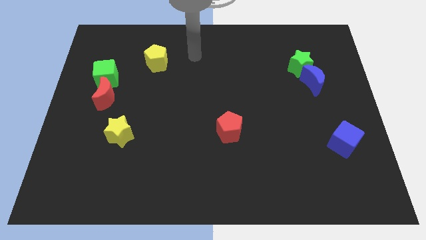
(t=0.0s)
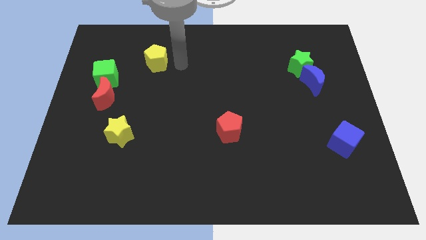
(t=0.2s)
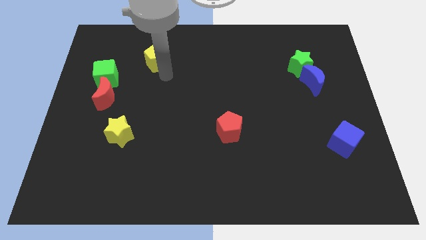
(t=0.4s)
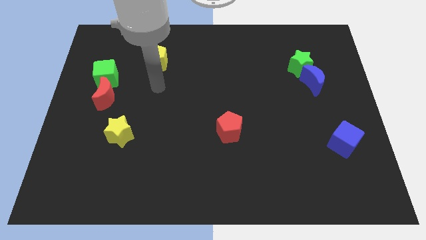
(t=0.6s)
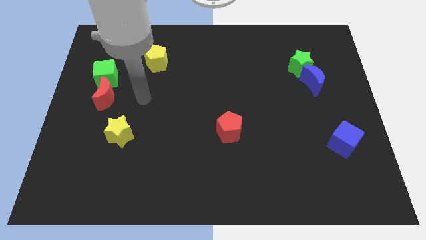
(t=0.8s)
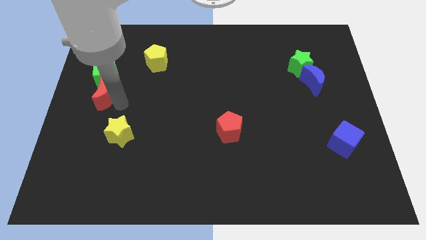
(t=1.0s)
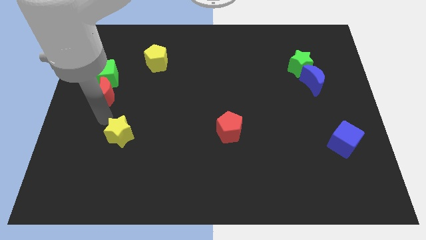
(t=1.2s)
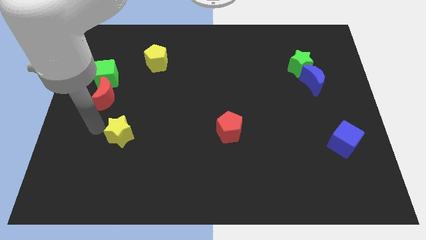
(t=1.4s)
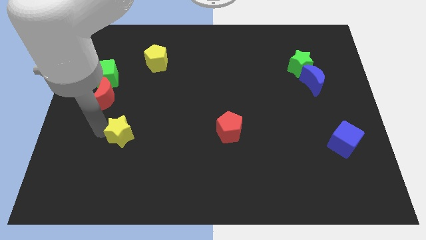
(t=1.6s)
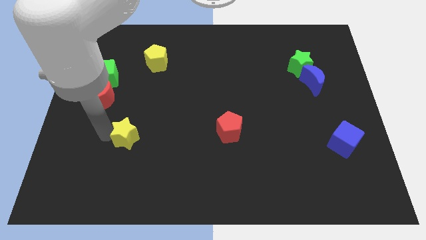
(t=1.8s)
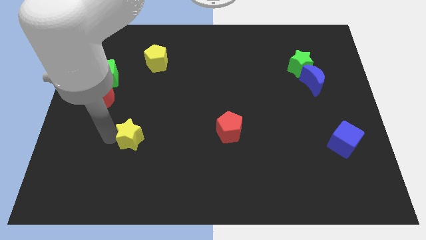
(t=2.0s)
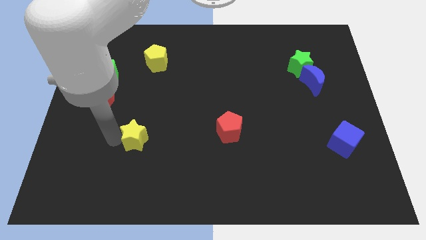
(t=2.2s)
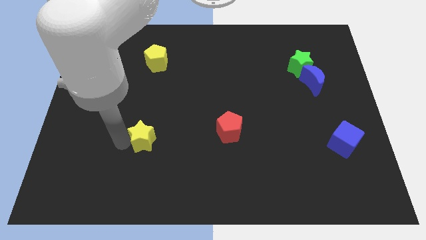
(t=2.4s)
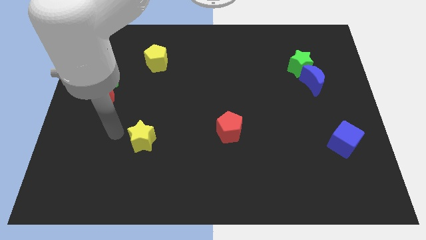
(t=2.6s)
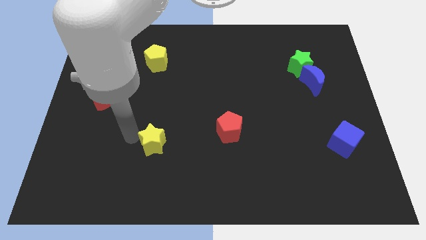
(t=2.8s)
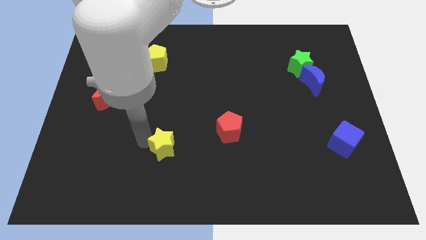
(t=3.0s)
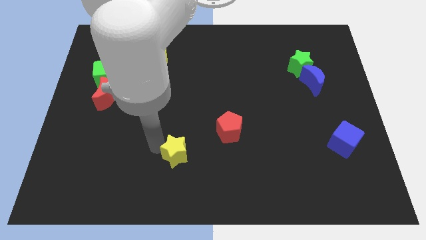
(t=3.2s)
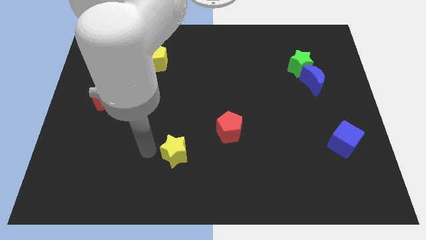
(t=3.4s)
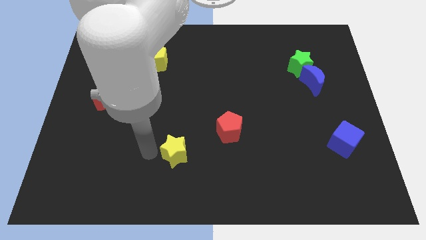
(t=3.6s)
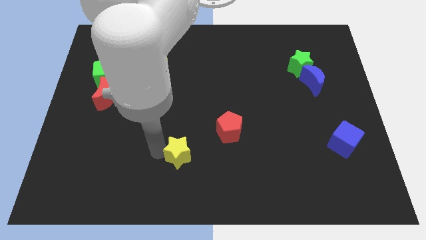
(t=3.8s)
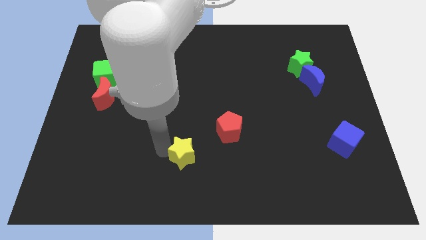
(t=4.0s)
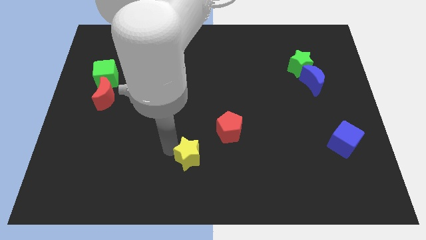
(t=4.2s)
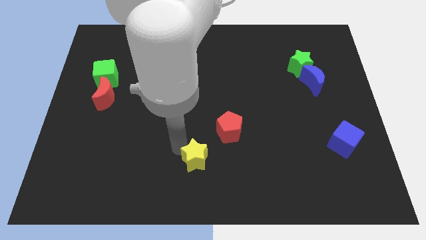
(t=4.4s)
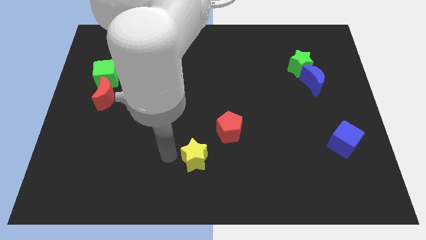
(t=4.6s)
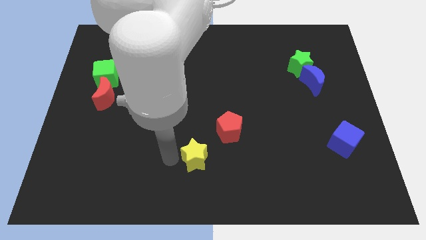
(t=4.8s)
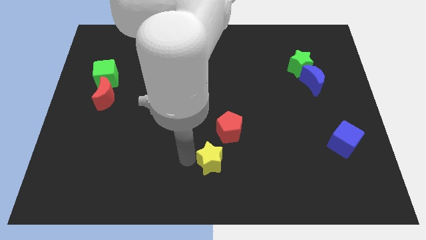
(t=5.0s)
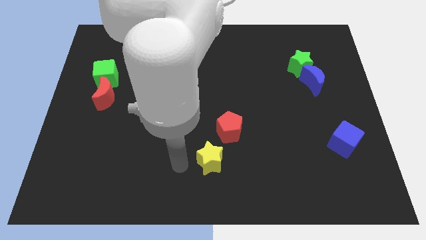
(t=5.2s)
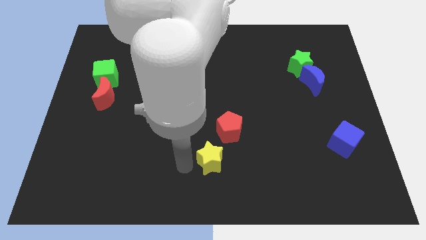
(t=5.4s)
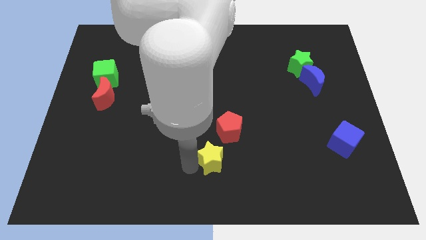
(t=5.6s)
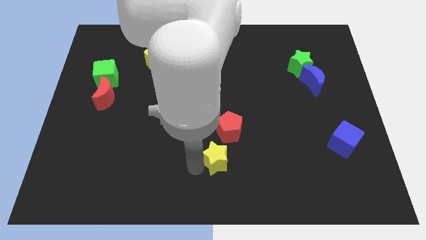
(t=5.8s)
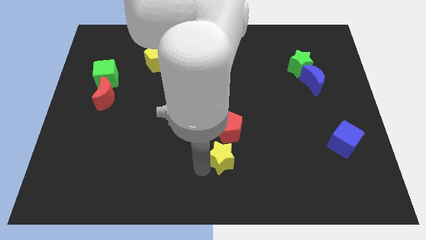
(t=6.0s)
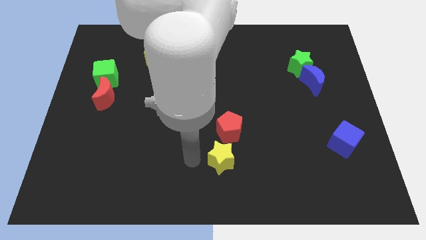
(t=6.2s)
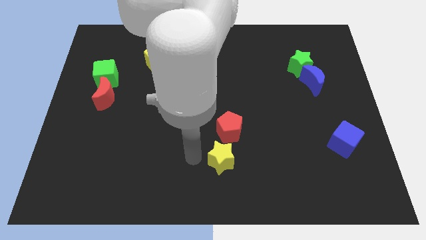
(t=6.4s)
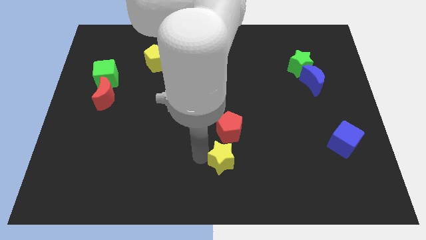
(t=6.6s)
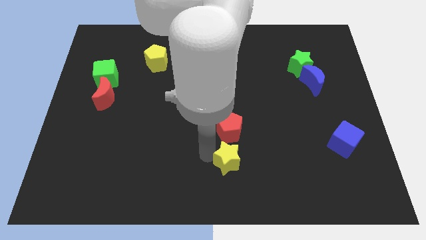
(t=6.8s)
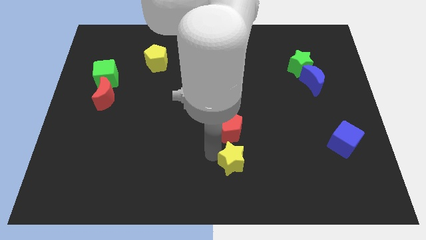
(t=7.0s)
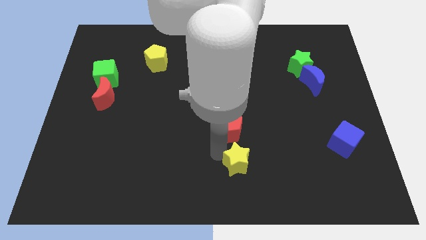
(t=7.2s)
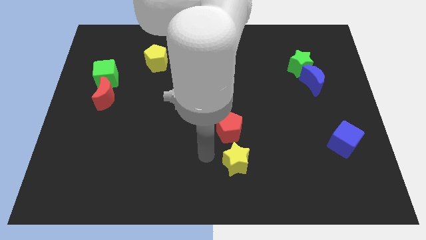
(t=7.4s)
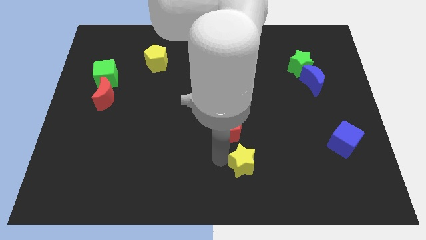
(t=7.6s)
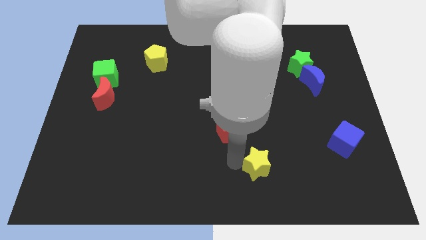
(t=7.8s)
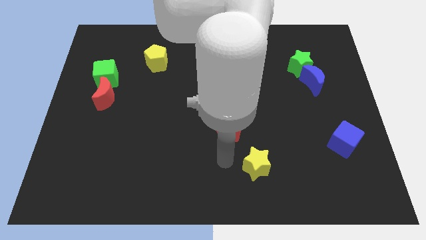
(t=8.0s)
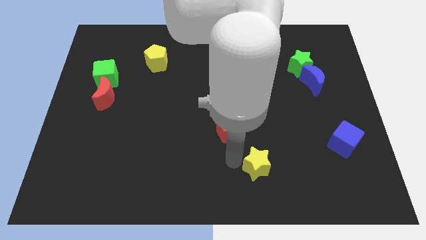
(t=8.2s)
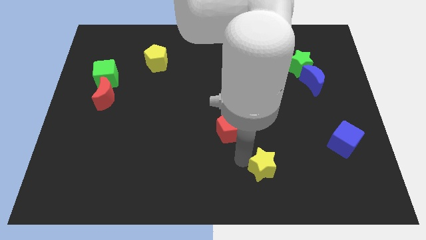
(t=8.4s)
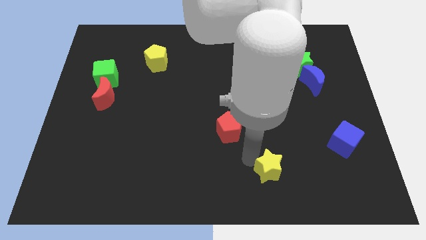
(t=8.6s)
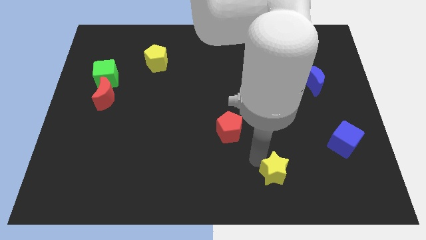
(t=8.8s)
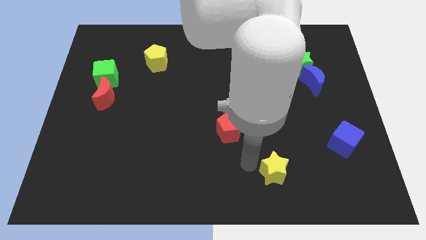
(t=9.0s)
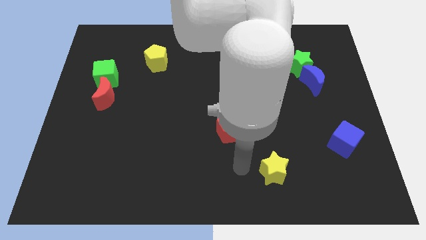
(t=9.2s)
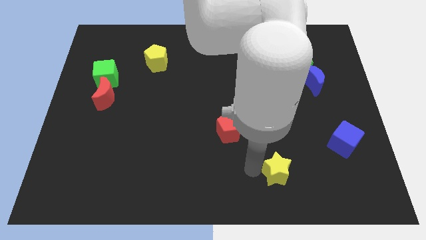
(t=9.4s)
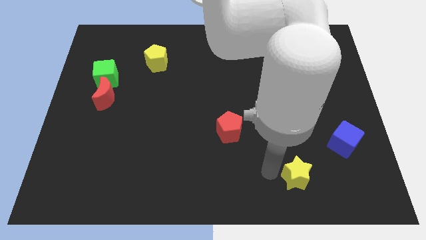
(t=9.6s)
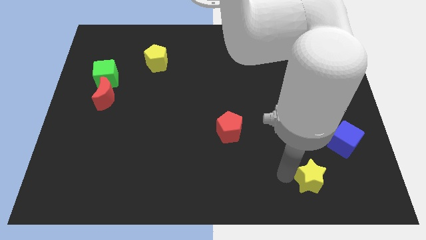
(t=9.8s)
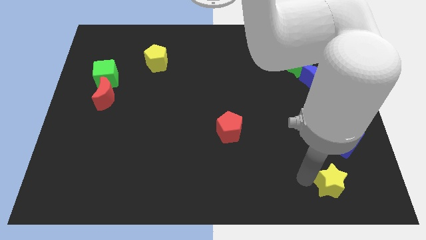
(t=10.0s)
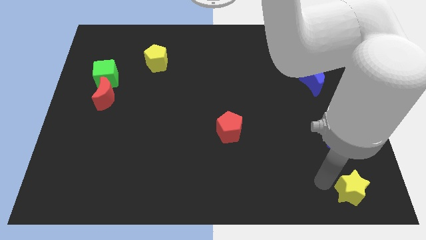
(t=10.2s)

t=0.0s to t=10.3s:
put the yellow star to the bottom right

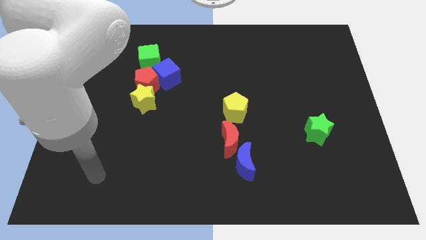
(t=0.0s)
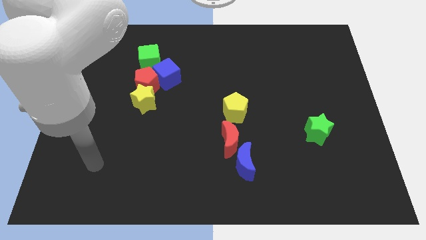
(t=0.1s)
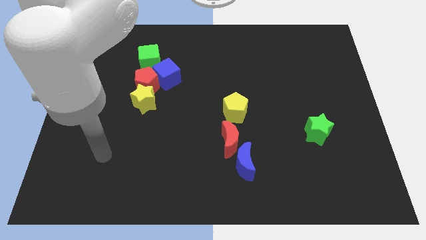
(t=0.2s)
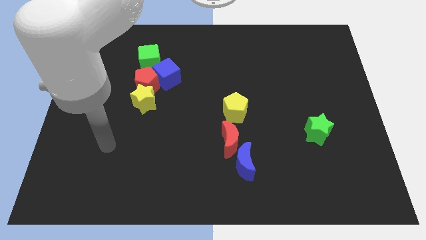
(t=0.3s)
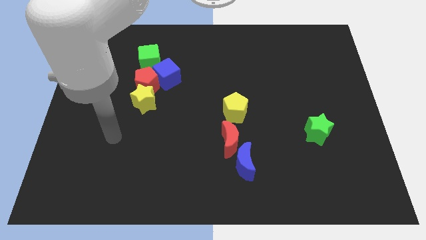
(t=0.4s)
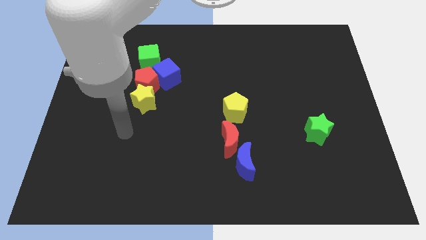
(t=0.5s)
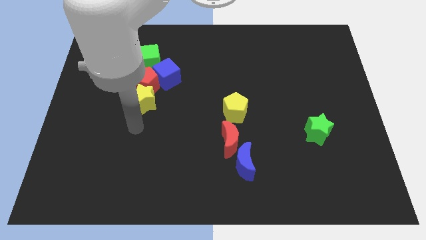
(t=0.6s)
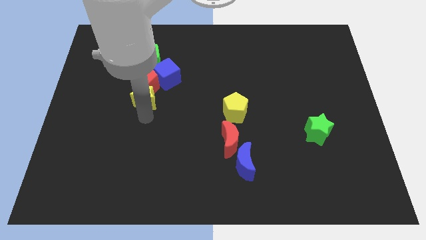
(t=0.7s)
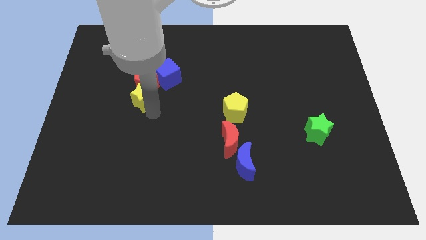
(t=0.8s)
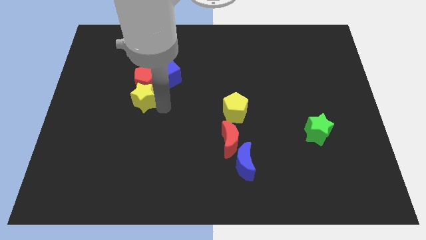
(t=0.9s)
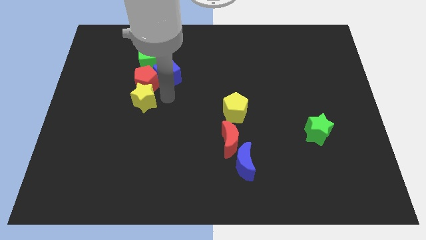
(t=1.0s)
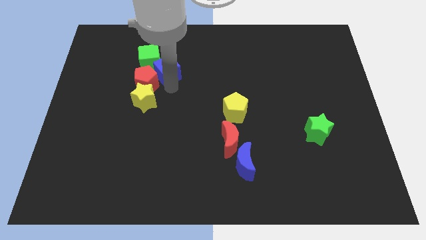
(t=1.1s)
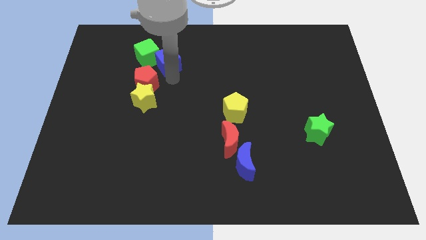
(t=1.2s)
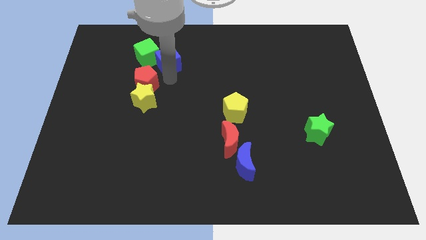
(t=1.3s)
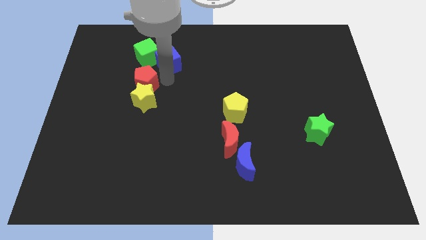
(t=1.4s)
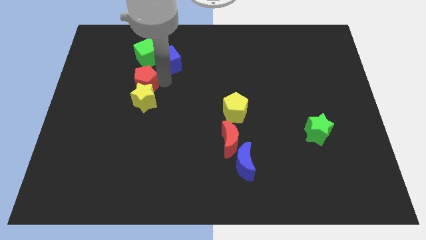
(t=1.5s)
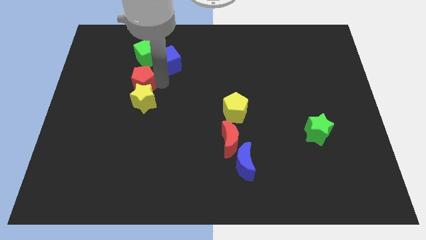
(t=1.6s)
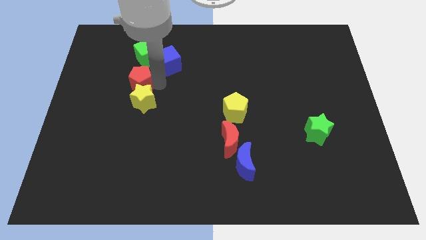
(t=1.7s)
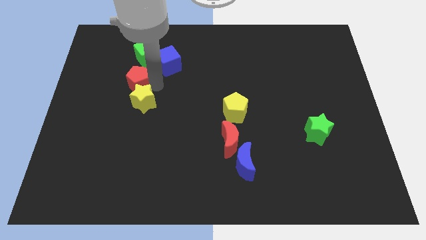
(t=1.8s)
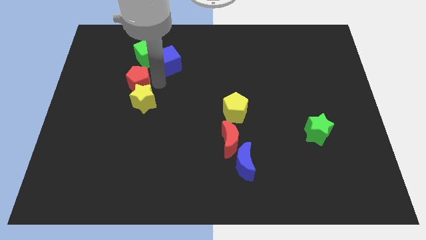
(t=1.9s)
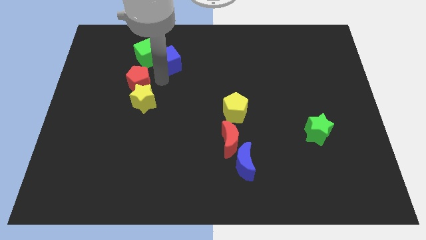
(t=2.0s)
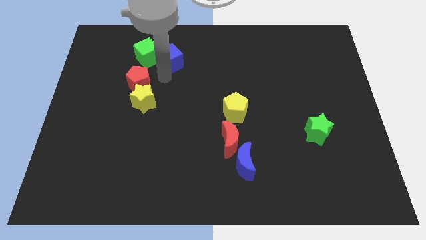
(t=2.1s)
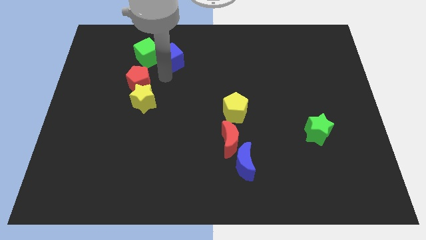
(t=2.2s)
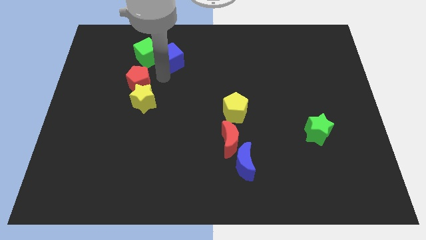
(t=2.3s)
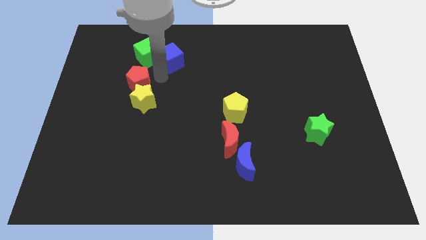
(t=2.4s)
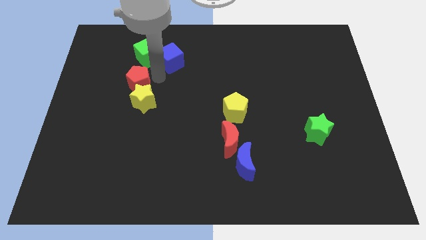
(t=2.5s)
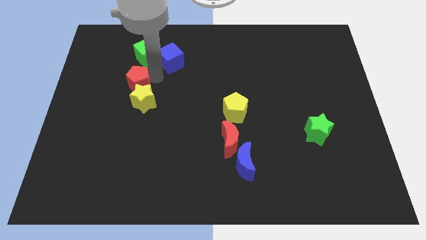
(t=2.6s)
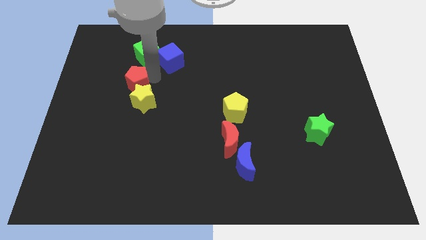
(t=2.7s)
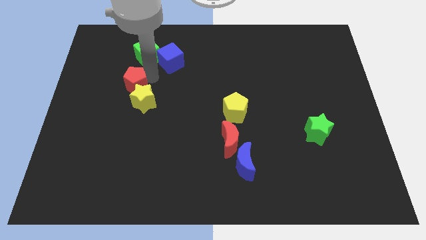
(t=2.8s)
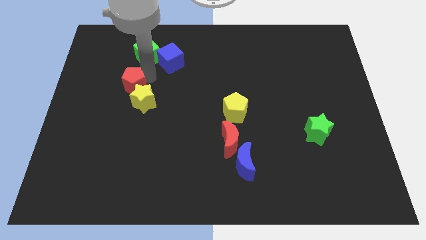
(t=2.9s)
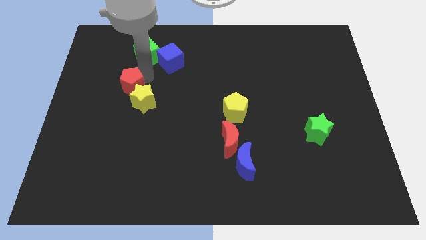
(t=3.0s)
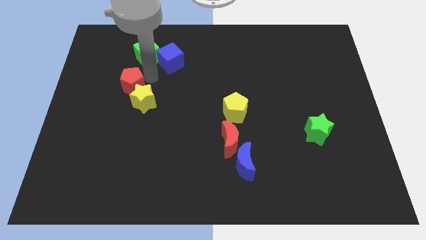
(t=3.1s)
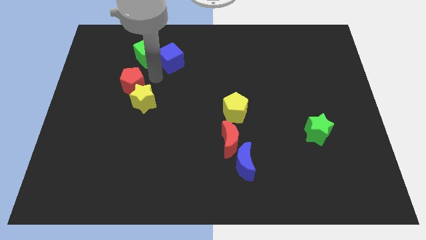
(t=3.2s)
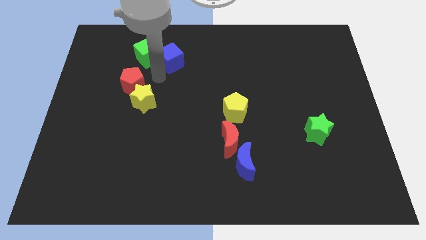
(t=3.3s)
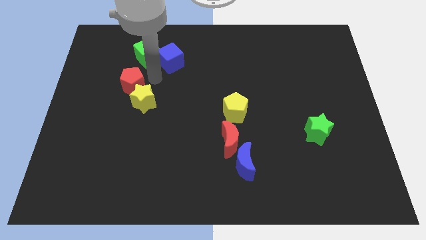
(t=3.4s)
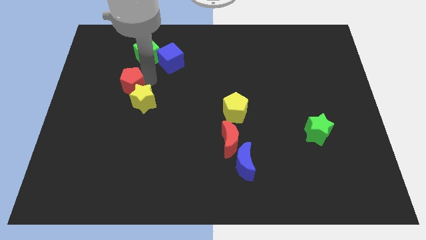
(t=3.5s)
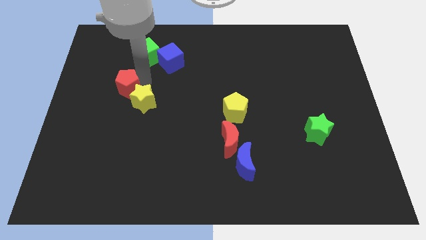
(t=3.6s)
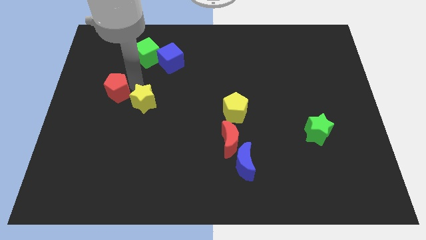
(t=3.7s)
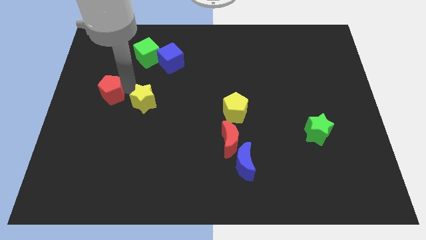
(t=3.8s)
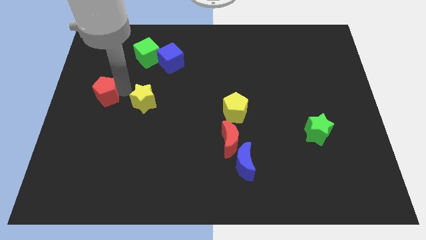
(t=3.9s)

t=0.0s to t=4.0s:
push the red pentagon to the left side
